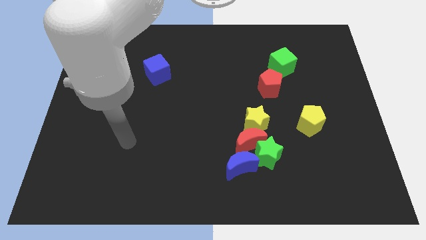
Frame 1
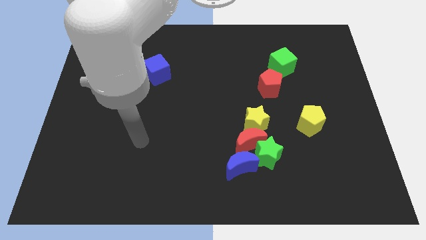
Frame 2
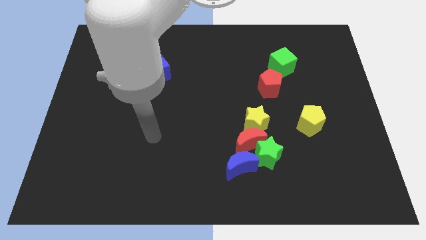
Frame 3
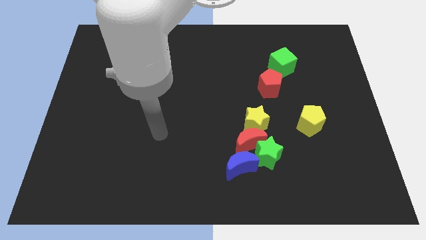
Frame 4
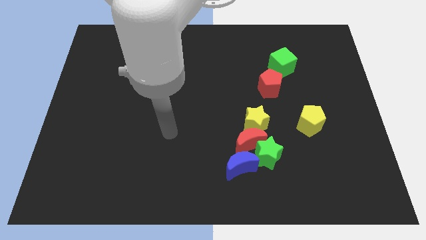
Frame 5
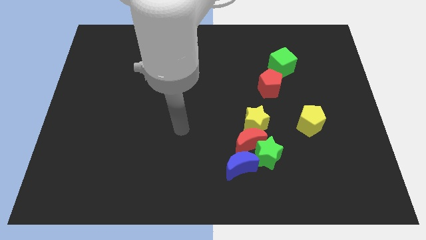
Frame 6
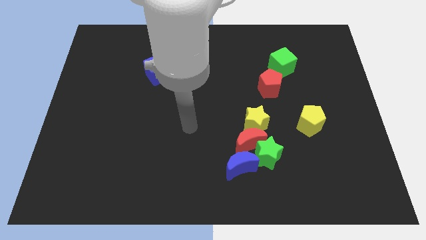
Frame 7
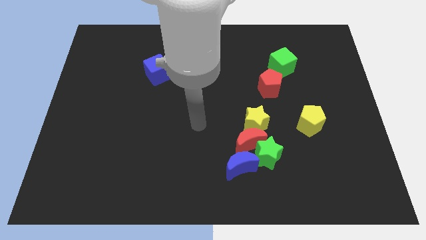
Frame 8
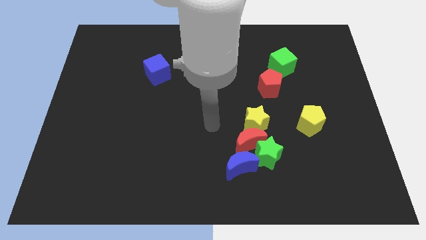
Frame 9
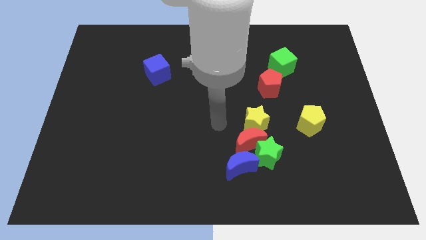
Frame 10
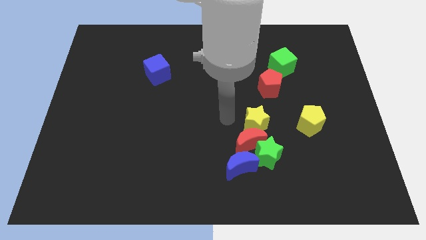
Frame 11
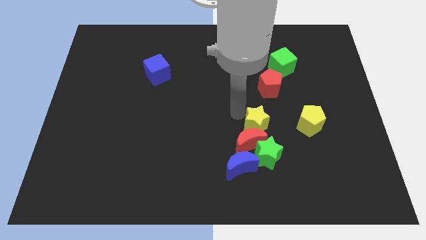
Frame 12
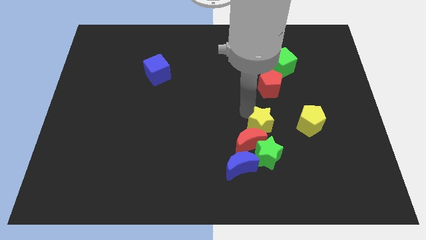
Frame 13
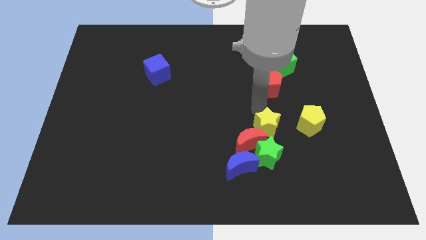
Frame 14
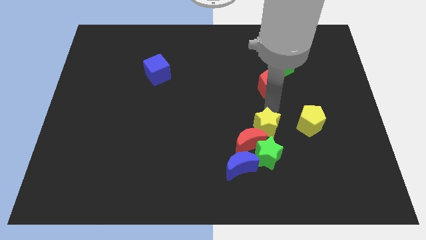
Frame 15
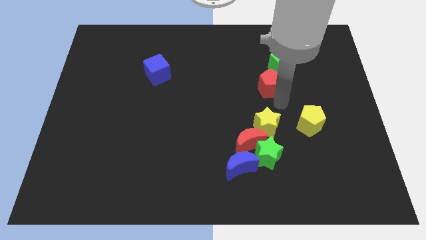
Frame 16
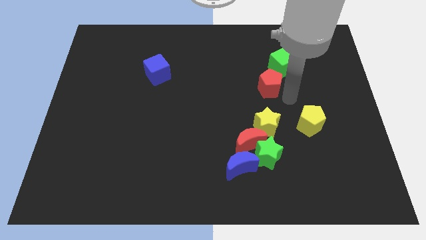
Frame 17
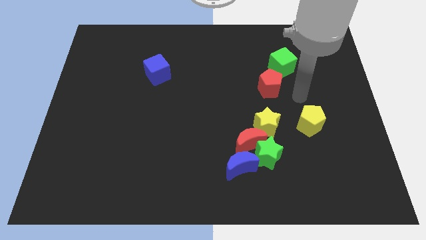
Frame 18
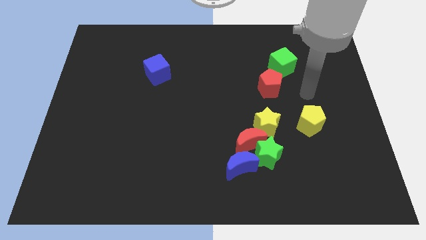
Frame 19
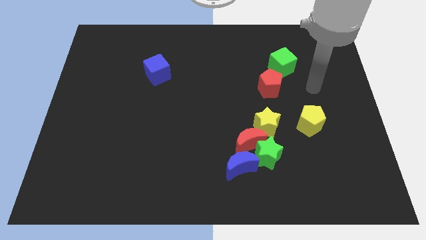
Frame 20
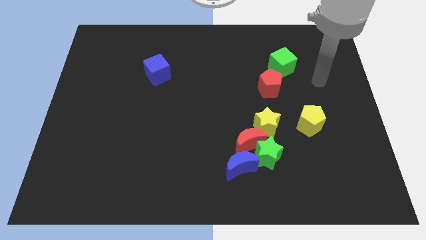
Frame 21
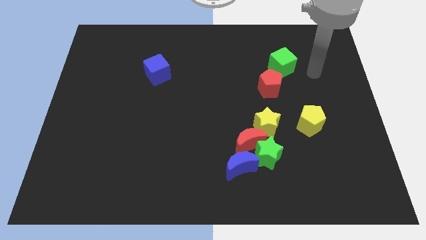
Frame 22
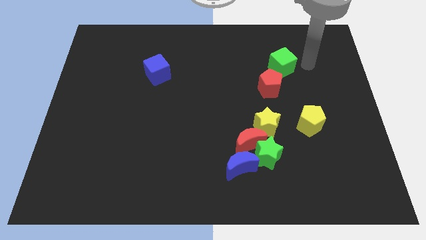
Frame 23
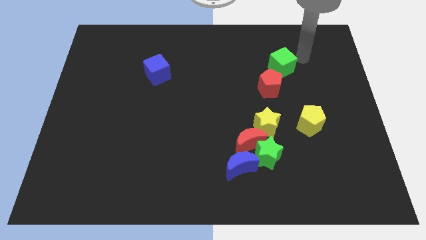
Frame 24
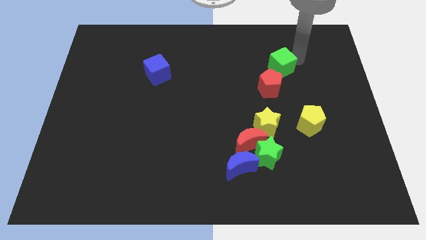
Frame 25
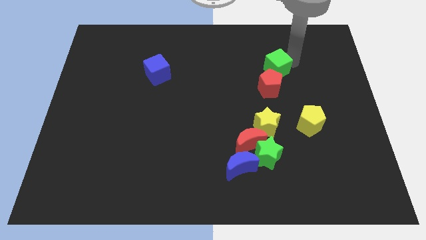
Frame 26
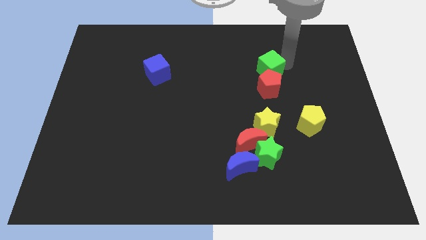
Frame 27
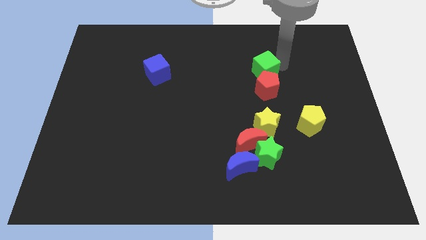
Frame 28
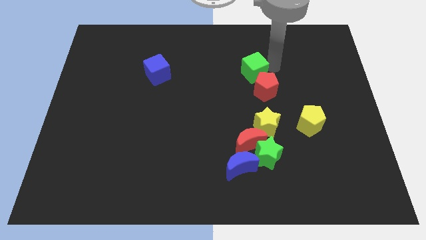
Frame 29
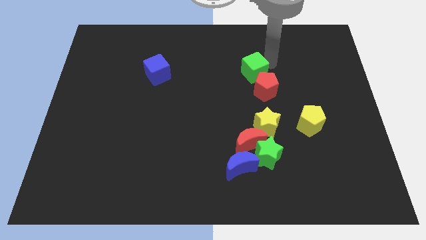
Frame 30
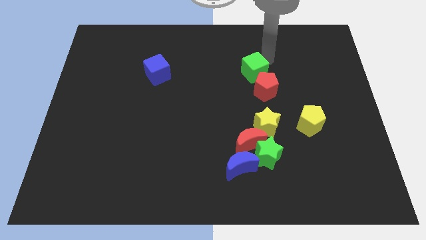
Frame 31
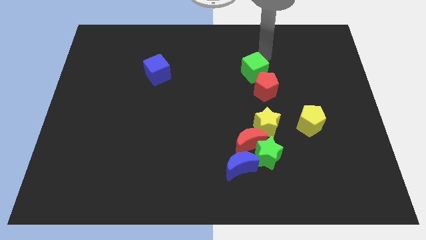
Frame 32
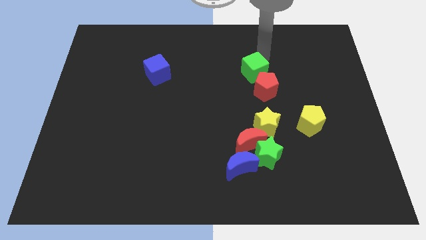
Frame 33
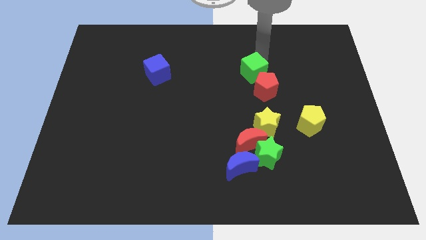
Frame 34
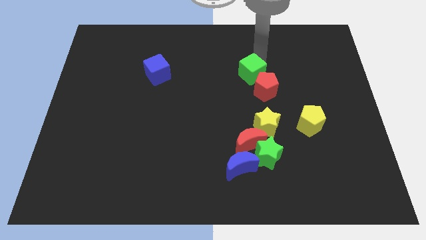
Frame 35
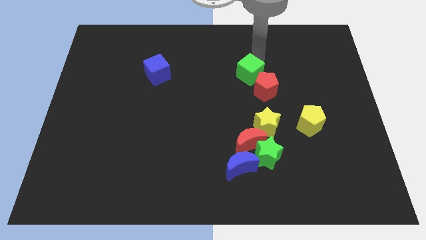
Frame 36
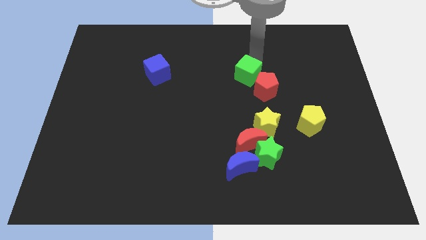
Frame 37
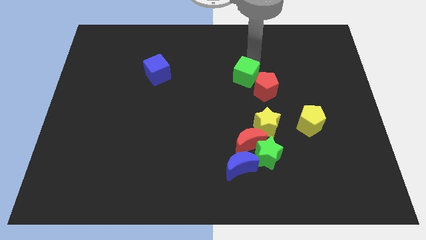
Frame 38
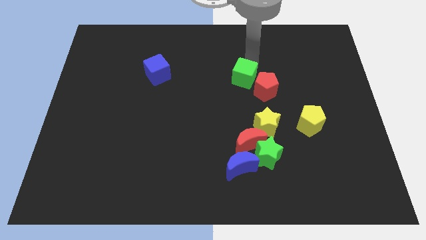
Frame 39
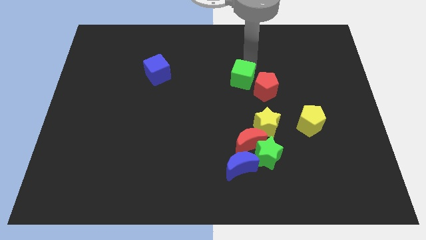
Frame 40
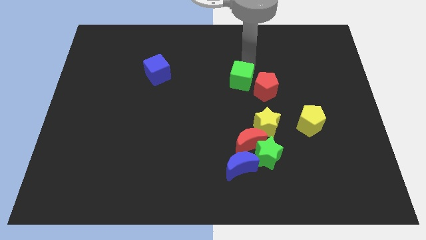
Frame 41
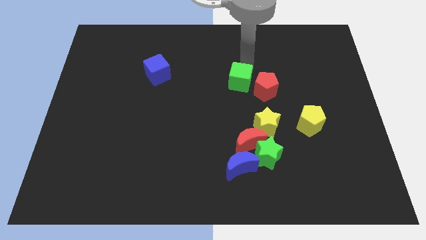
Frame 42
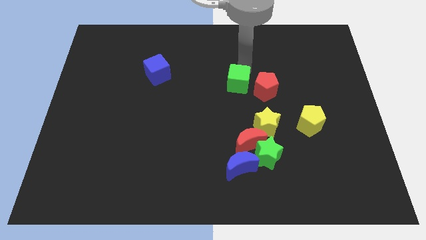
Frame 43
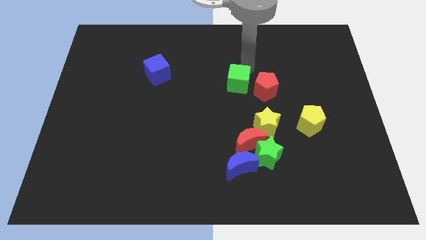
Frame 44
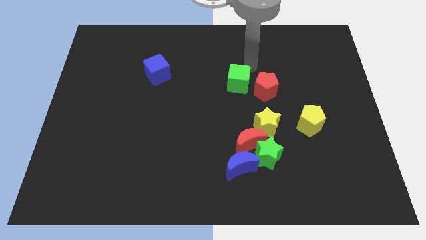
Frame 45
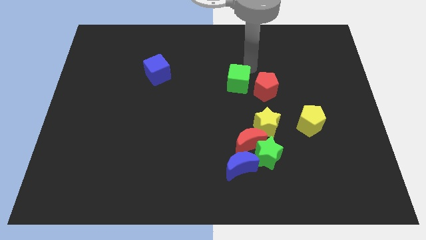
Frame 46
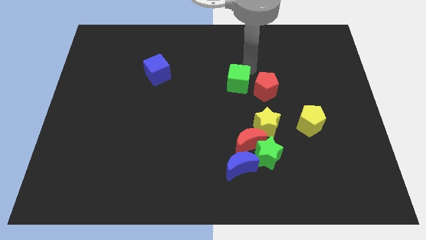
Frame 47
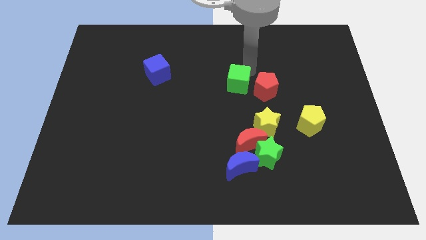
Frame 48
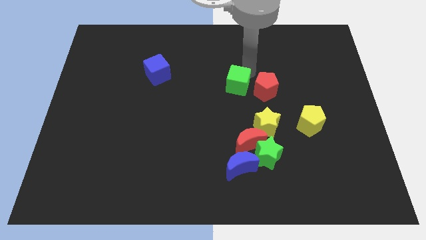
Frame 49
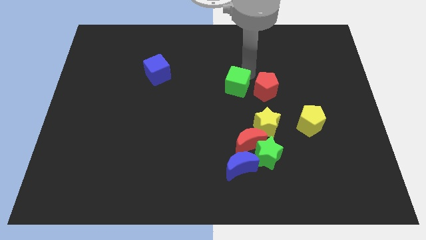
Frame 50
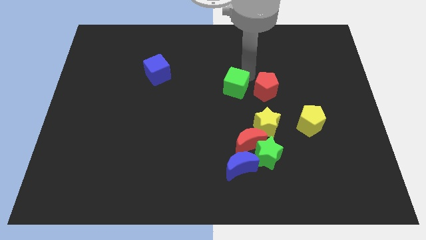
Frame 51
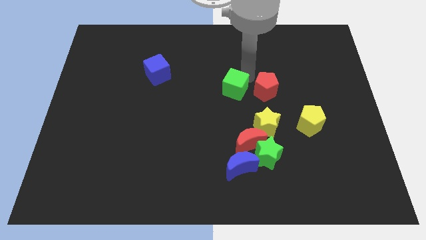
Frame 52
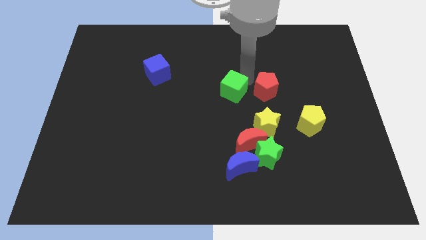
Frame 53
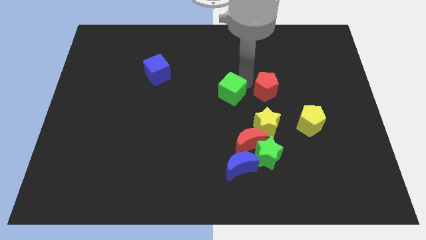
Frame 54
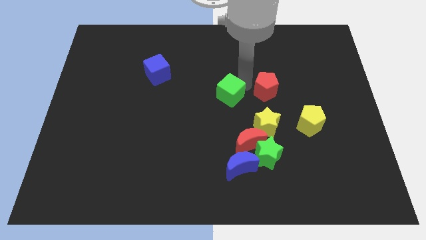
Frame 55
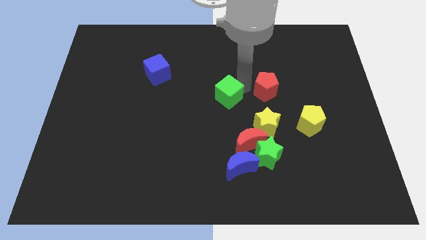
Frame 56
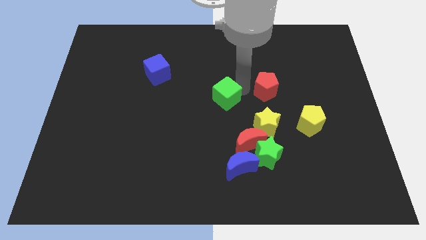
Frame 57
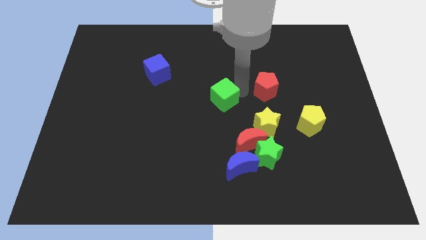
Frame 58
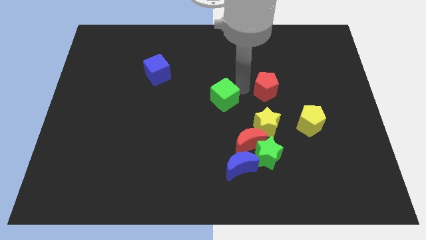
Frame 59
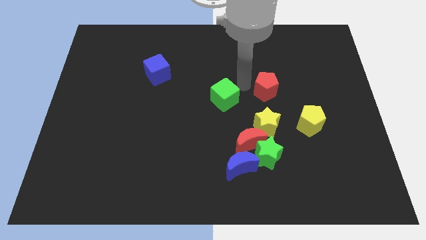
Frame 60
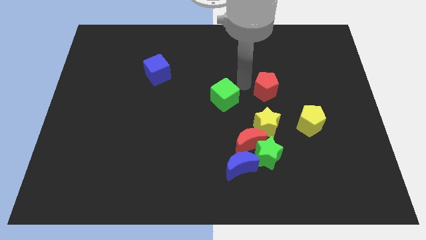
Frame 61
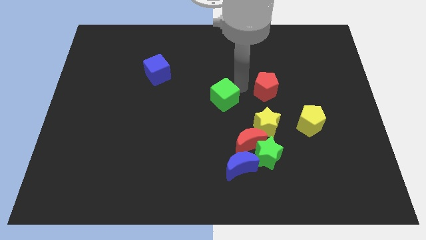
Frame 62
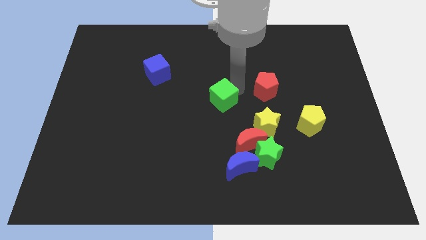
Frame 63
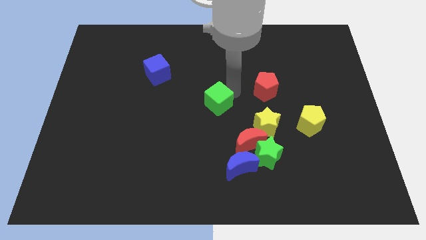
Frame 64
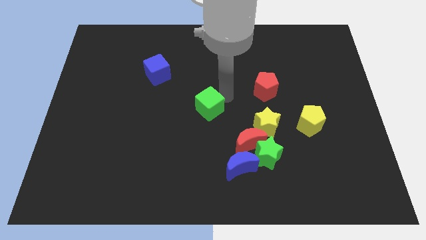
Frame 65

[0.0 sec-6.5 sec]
move the green cube downwards and to the left diagonally

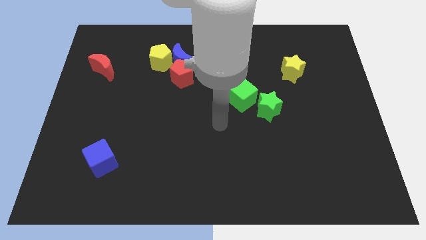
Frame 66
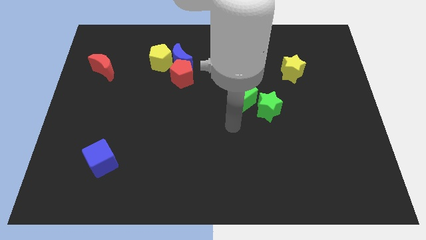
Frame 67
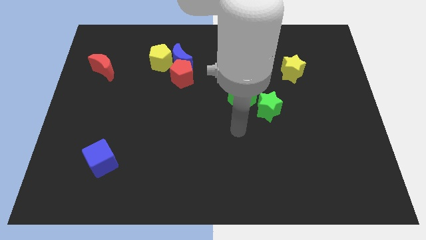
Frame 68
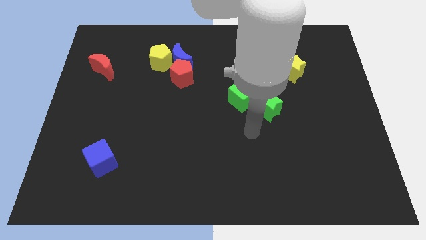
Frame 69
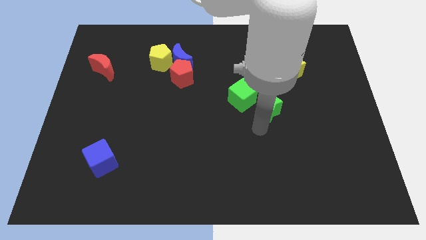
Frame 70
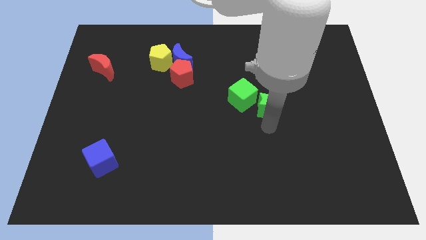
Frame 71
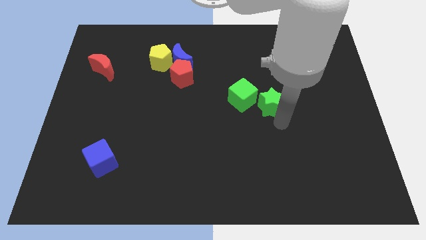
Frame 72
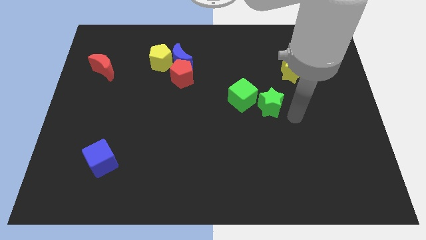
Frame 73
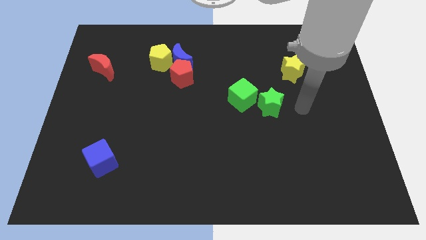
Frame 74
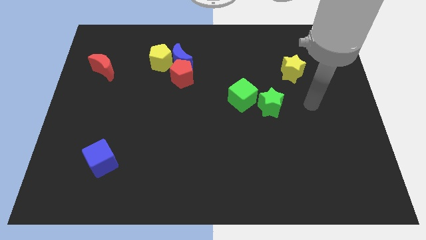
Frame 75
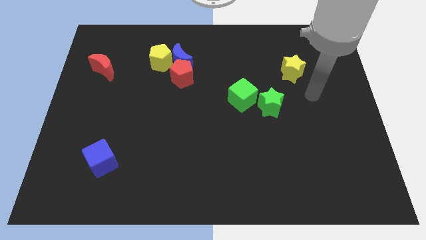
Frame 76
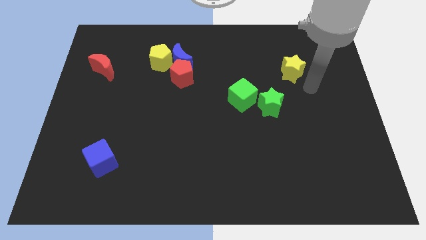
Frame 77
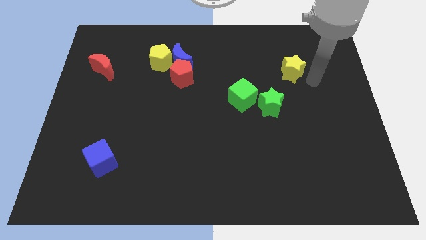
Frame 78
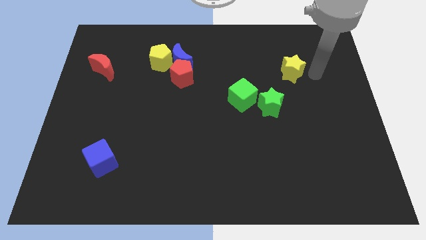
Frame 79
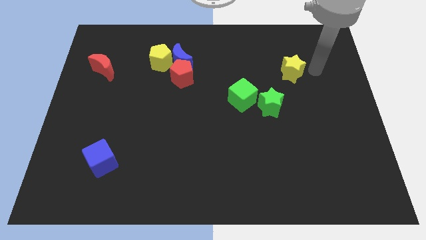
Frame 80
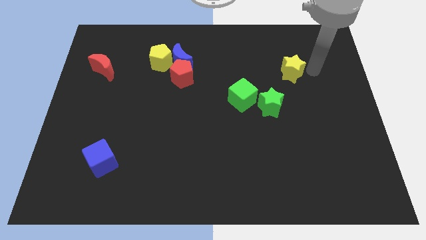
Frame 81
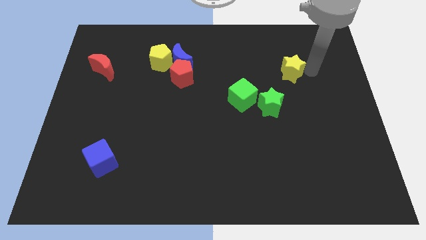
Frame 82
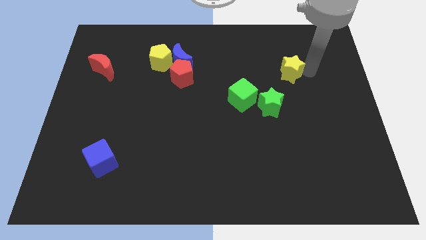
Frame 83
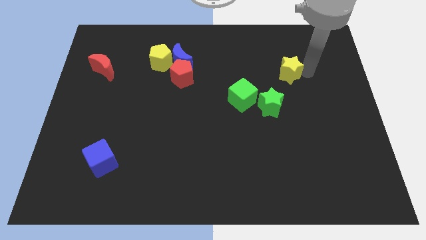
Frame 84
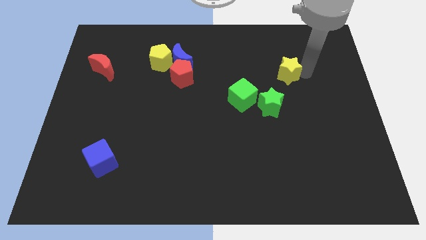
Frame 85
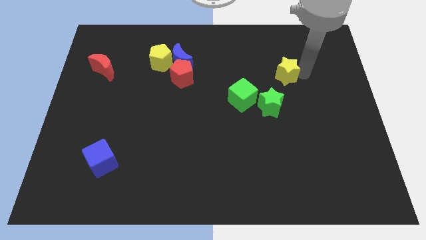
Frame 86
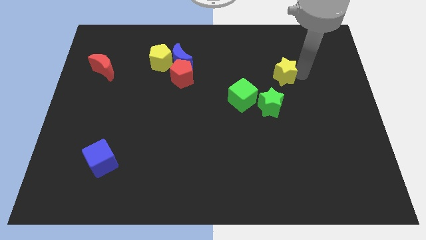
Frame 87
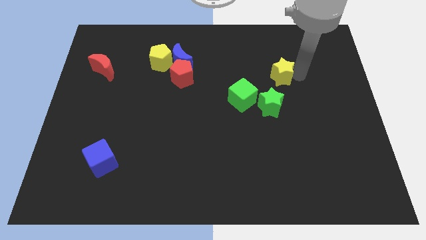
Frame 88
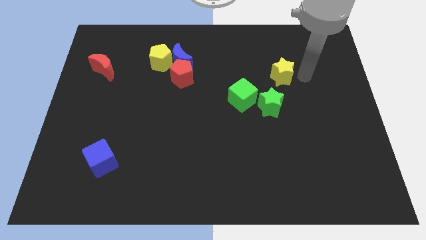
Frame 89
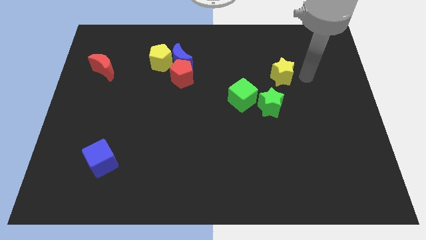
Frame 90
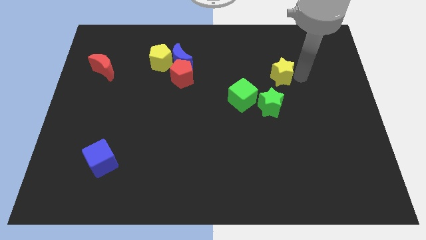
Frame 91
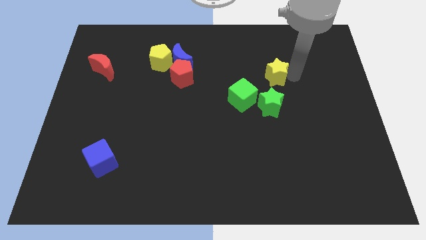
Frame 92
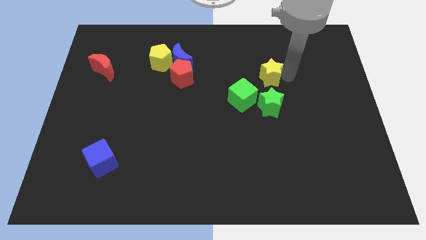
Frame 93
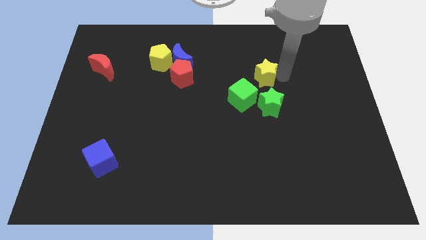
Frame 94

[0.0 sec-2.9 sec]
slightly slide the yellow star left
